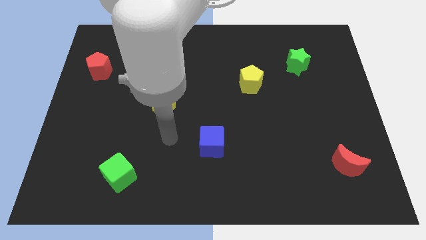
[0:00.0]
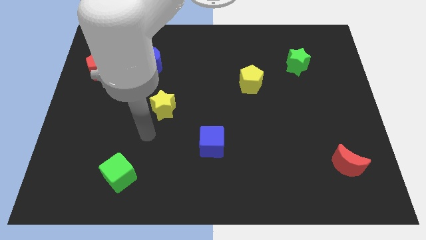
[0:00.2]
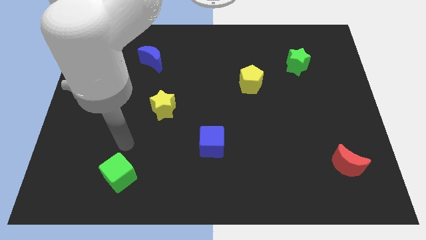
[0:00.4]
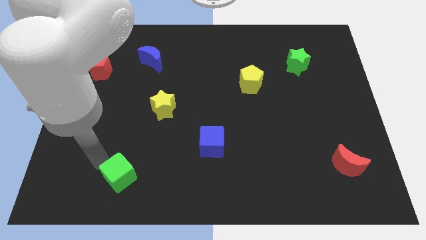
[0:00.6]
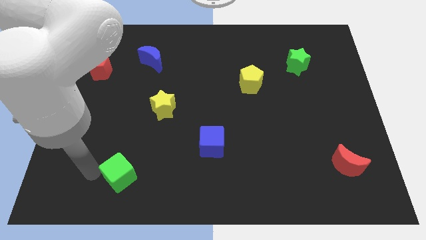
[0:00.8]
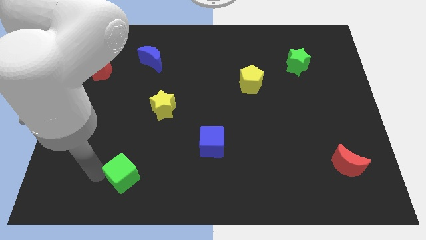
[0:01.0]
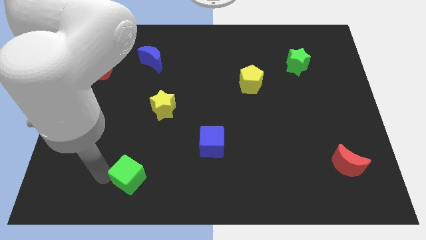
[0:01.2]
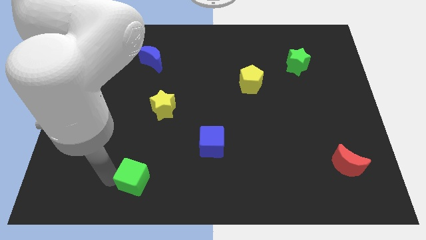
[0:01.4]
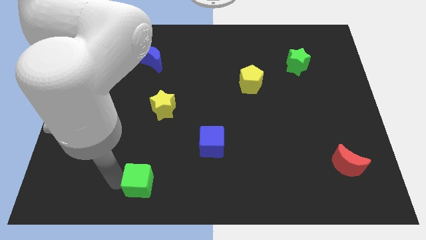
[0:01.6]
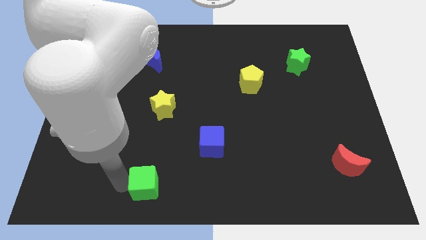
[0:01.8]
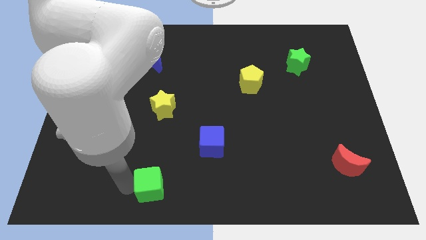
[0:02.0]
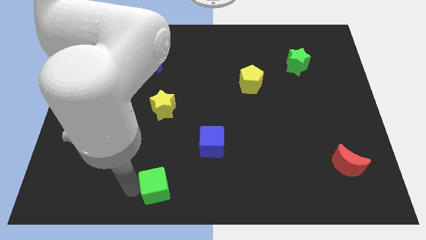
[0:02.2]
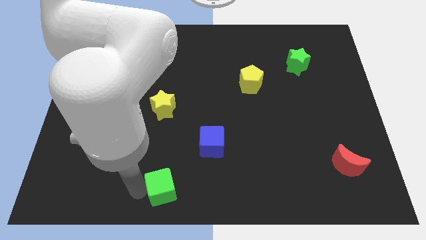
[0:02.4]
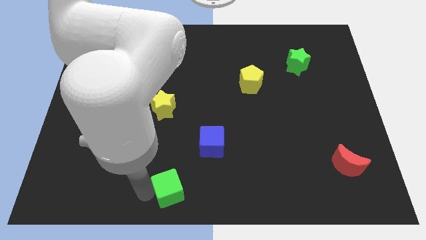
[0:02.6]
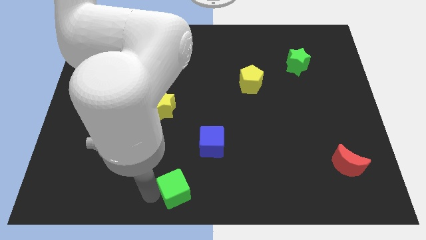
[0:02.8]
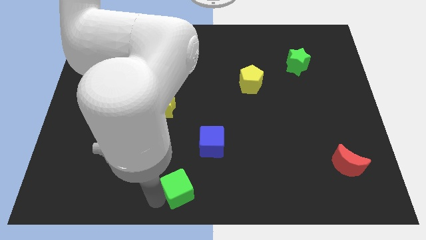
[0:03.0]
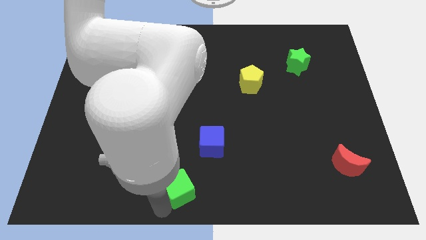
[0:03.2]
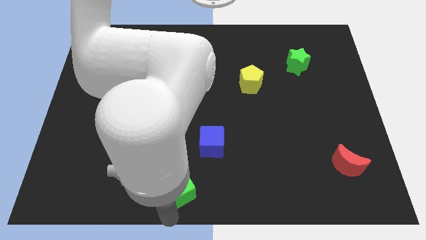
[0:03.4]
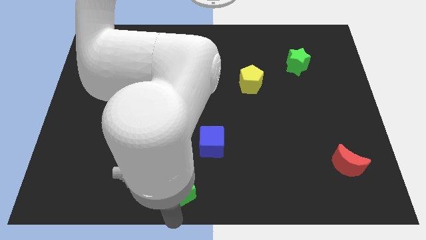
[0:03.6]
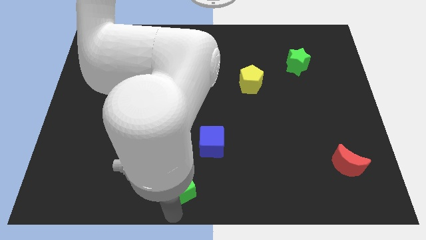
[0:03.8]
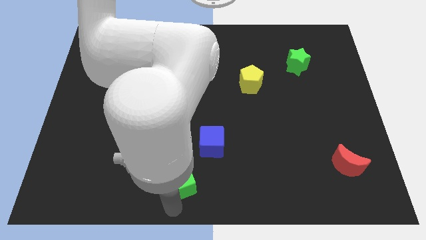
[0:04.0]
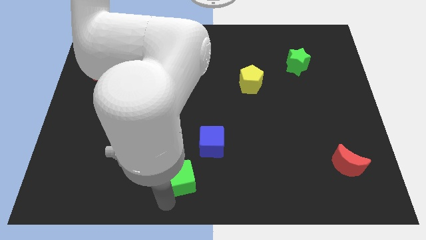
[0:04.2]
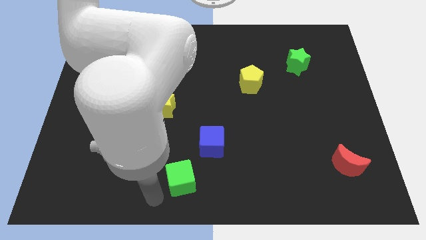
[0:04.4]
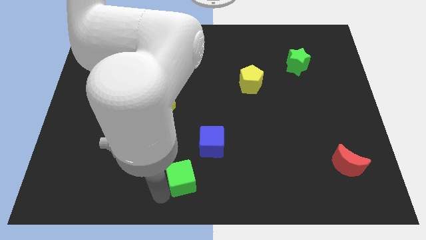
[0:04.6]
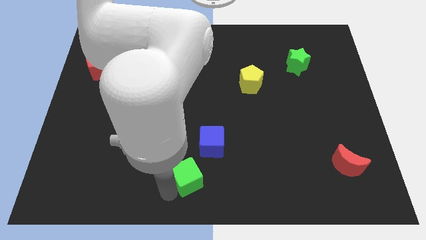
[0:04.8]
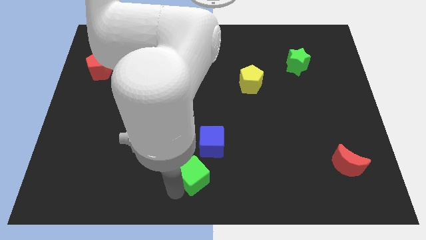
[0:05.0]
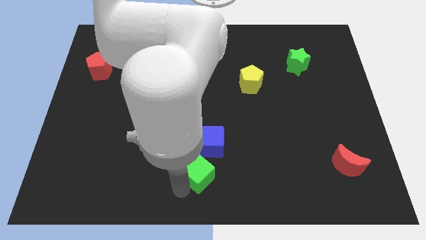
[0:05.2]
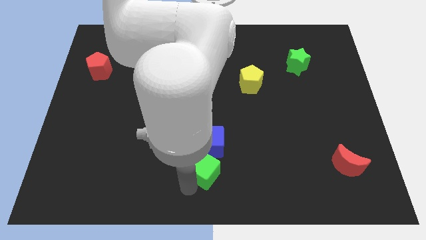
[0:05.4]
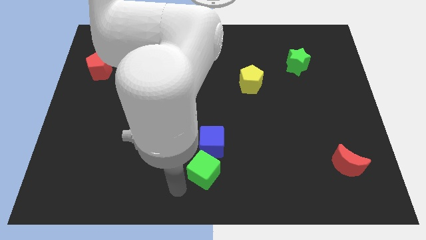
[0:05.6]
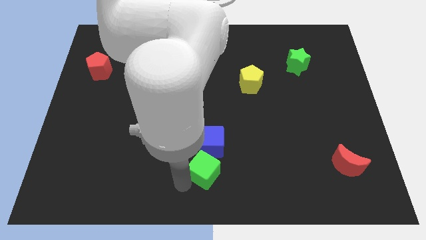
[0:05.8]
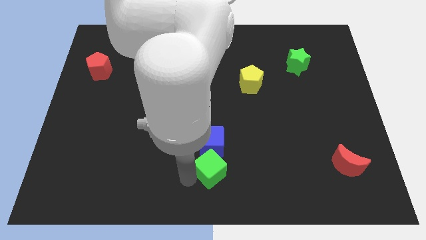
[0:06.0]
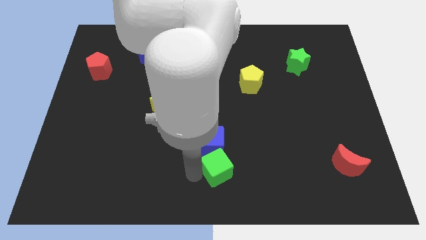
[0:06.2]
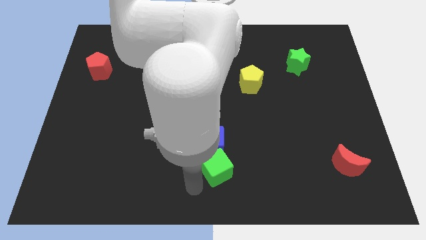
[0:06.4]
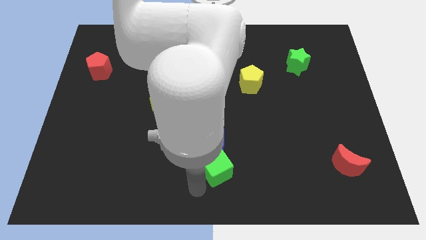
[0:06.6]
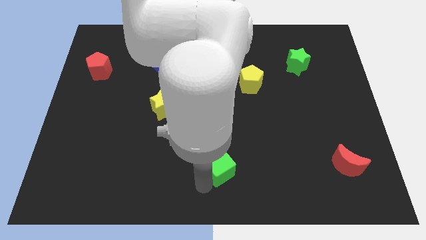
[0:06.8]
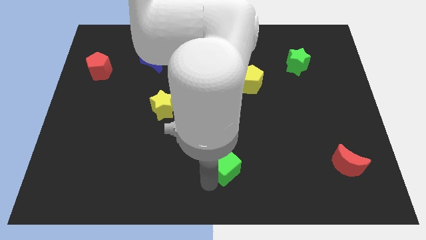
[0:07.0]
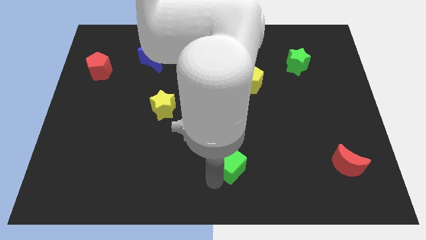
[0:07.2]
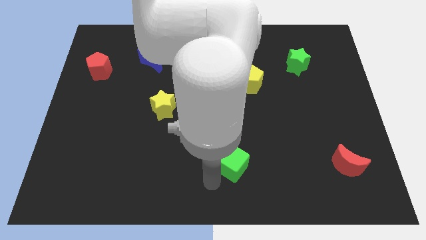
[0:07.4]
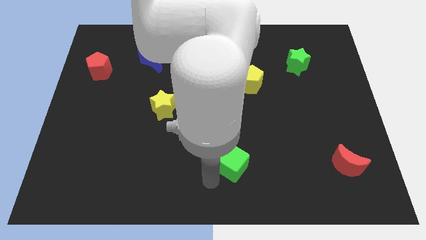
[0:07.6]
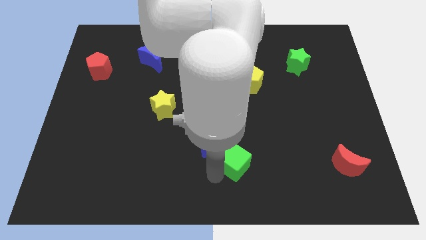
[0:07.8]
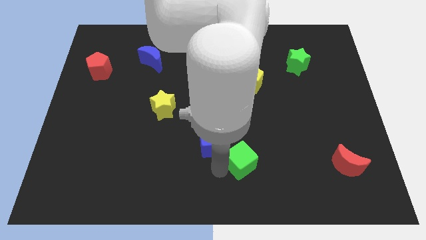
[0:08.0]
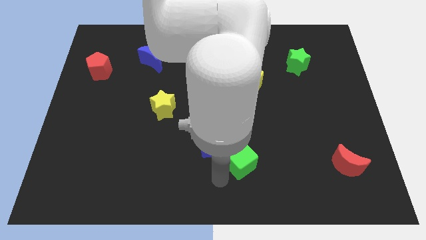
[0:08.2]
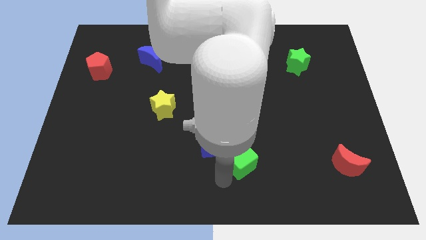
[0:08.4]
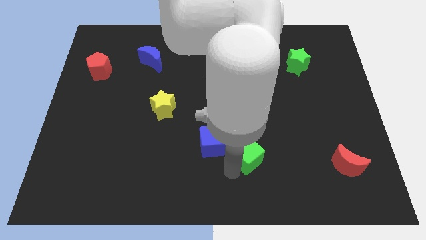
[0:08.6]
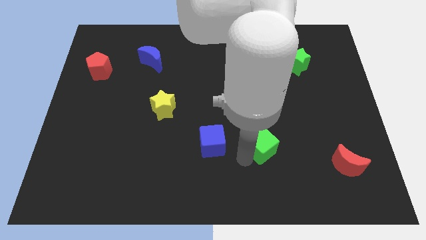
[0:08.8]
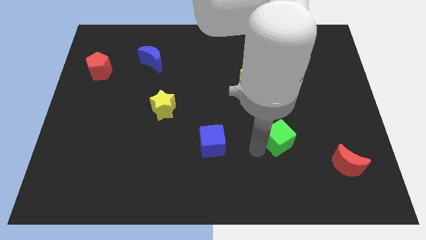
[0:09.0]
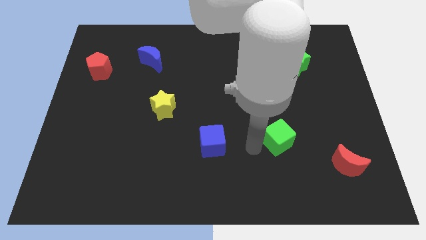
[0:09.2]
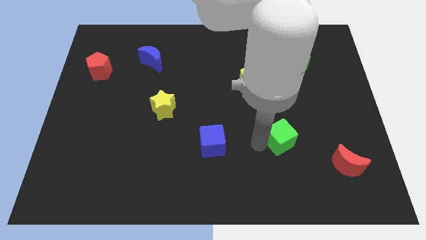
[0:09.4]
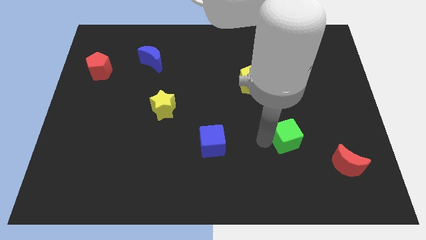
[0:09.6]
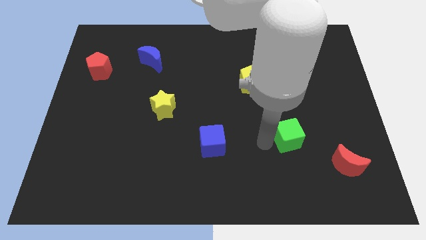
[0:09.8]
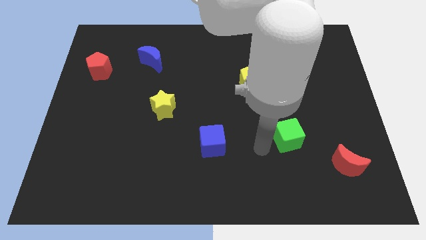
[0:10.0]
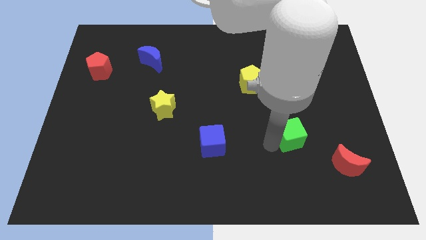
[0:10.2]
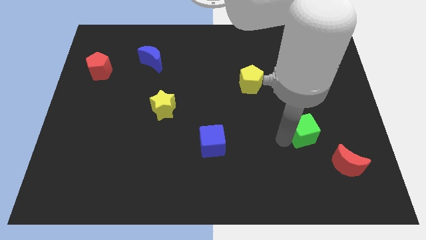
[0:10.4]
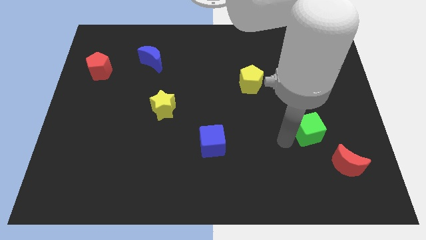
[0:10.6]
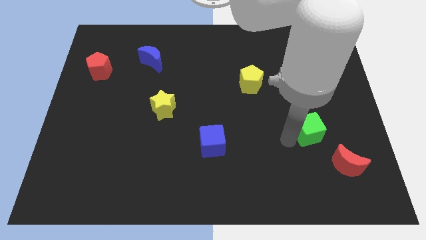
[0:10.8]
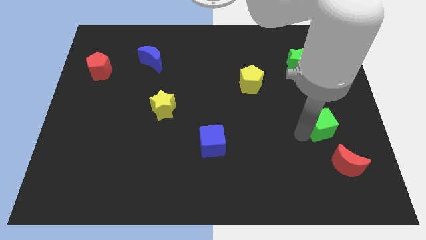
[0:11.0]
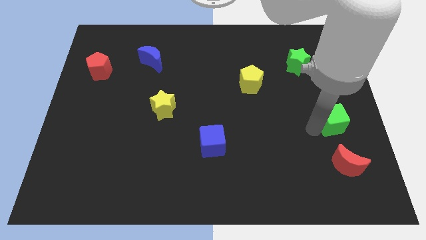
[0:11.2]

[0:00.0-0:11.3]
put the green cube to the center right

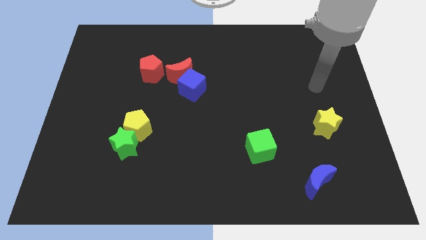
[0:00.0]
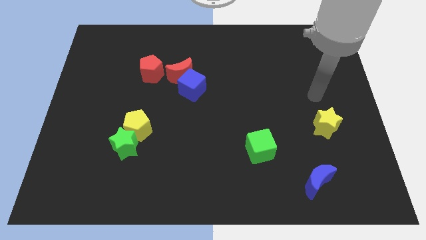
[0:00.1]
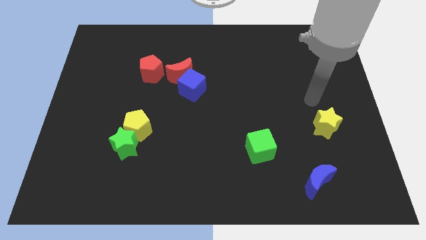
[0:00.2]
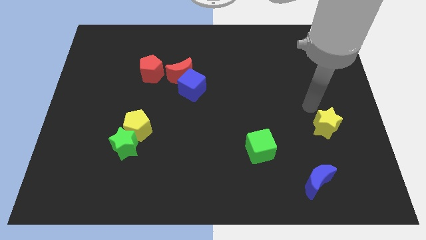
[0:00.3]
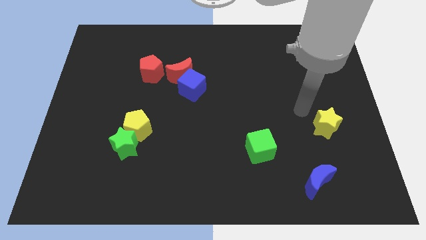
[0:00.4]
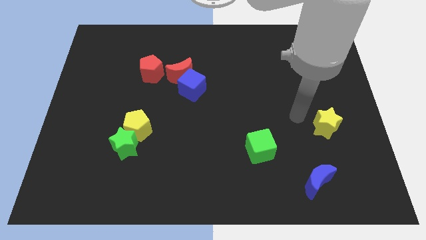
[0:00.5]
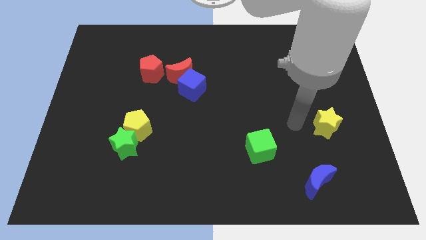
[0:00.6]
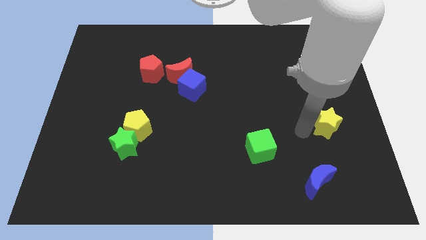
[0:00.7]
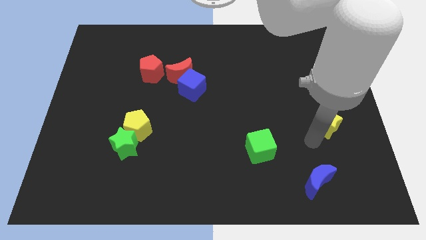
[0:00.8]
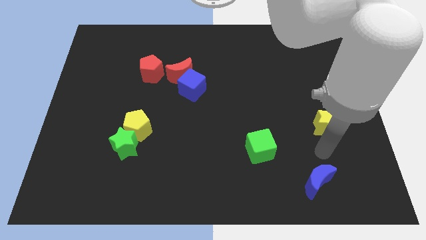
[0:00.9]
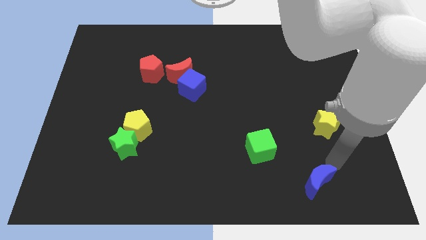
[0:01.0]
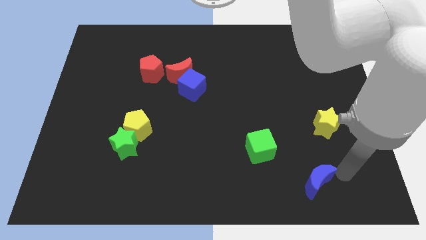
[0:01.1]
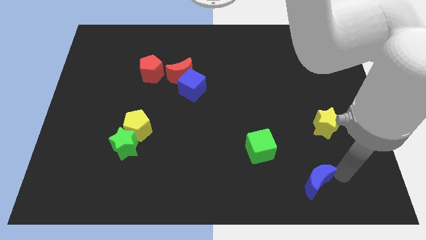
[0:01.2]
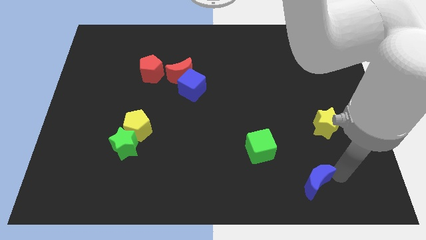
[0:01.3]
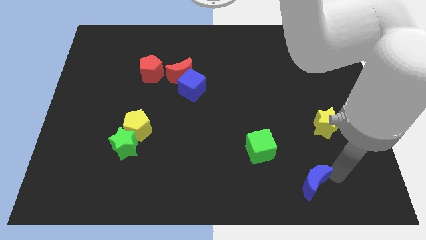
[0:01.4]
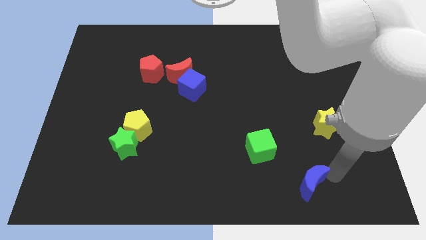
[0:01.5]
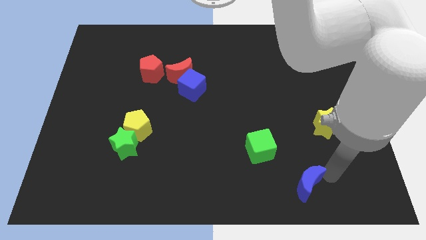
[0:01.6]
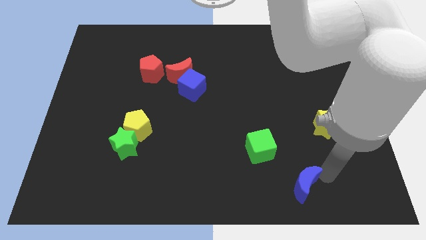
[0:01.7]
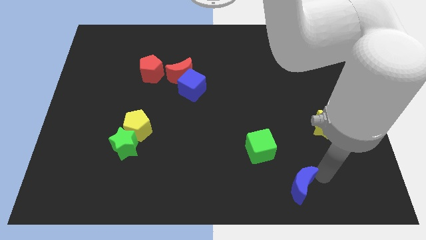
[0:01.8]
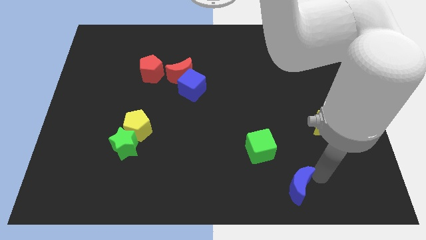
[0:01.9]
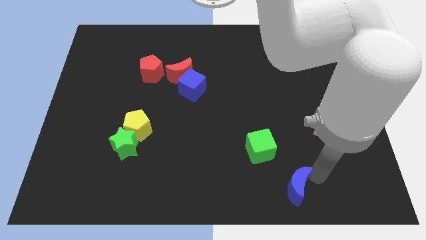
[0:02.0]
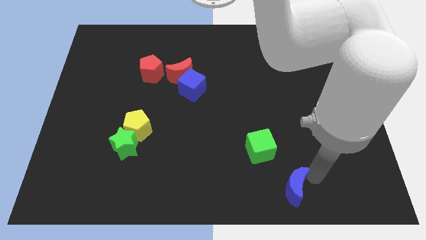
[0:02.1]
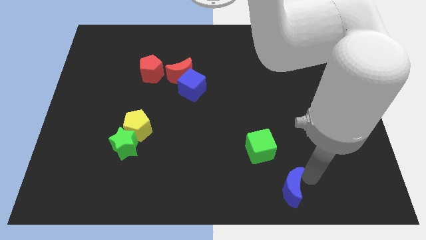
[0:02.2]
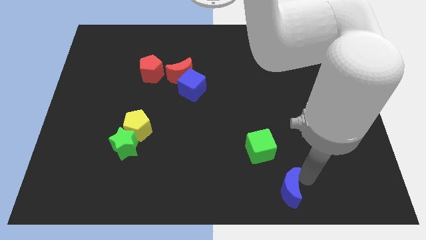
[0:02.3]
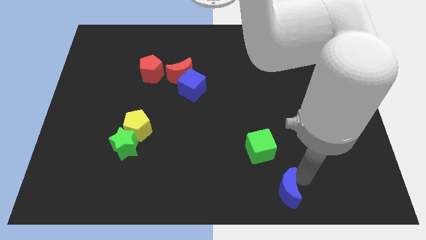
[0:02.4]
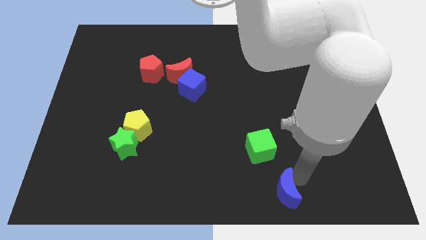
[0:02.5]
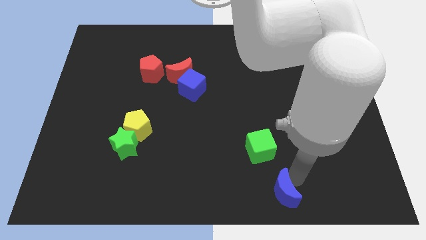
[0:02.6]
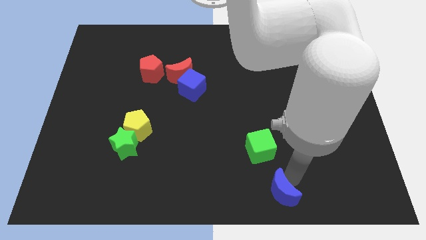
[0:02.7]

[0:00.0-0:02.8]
slide the blue moon to the bottom
